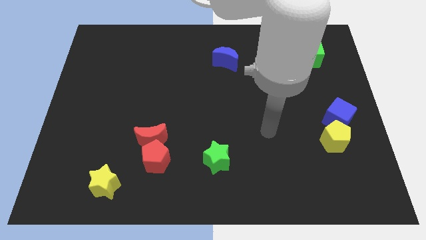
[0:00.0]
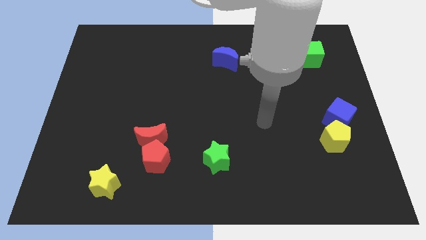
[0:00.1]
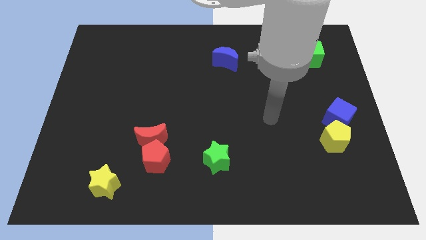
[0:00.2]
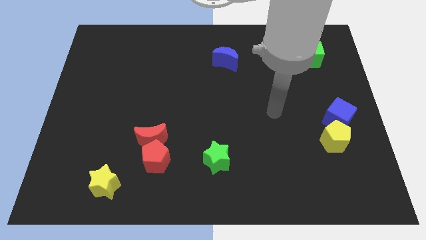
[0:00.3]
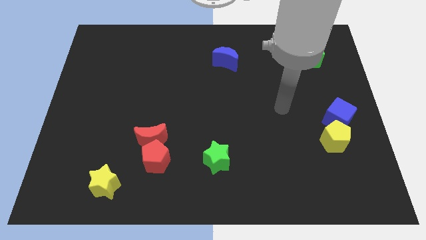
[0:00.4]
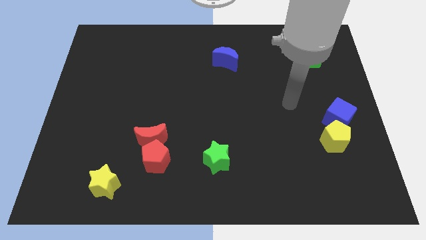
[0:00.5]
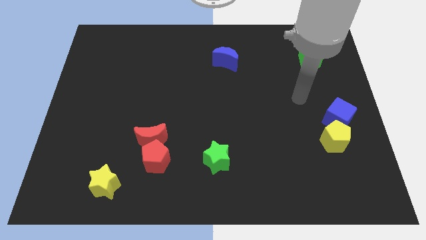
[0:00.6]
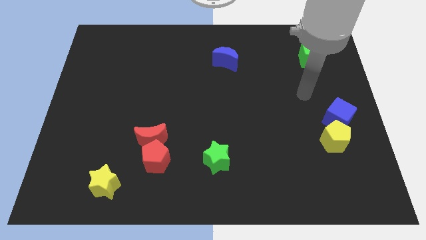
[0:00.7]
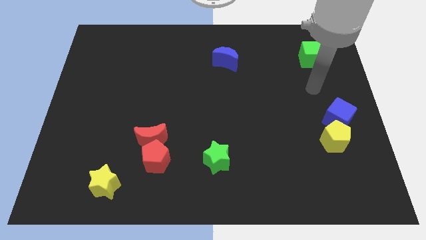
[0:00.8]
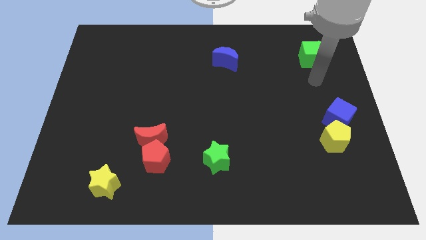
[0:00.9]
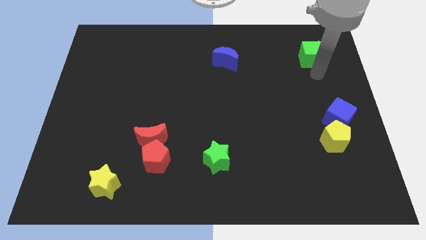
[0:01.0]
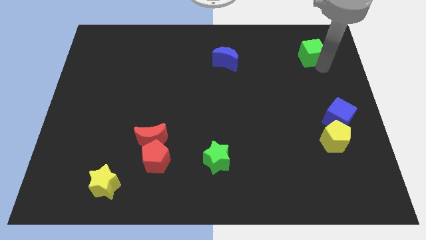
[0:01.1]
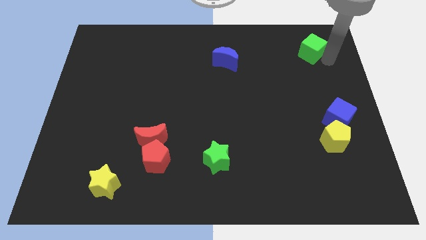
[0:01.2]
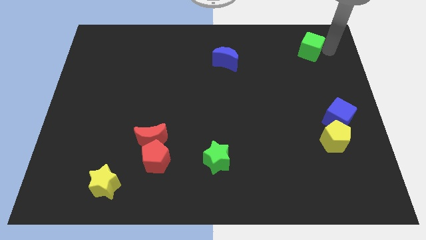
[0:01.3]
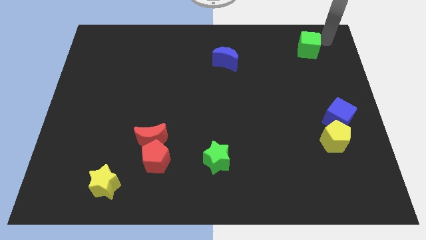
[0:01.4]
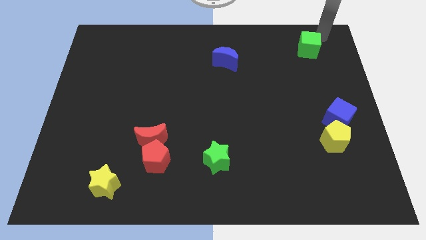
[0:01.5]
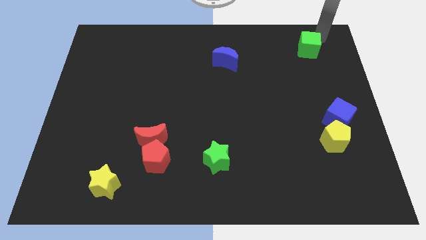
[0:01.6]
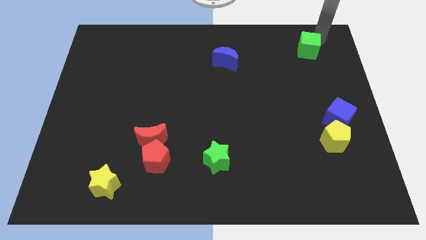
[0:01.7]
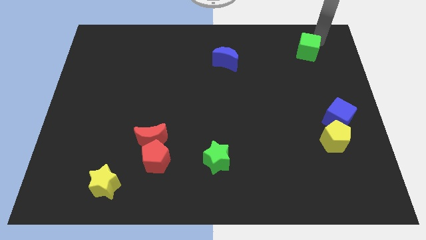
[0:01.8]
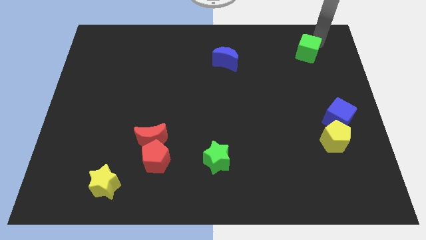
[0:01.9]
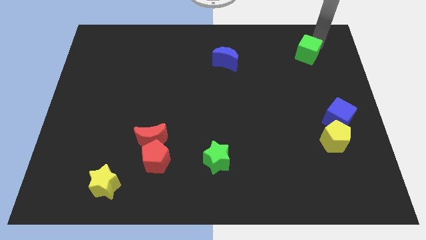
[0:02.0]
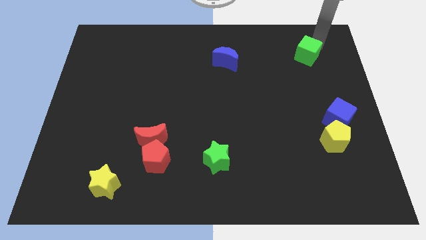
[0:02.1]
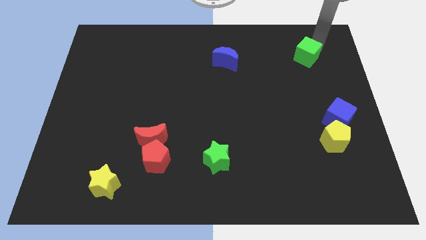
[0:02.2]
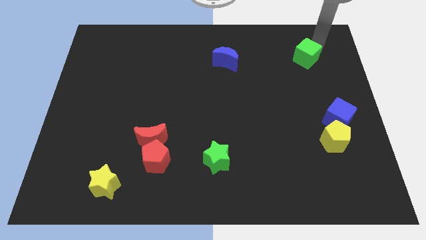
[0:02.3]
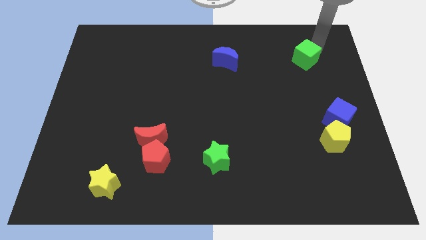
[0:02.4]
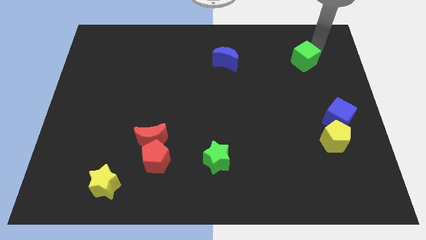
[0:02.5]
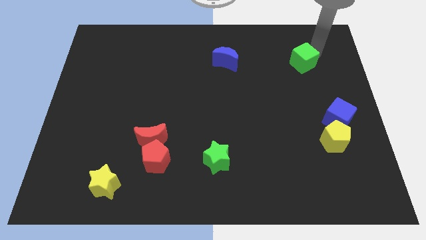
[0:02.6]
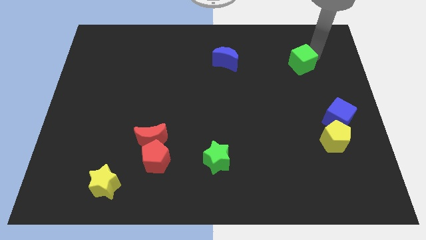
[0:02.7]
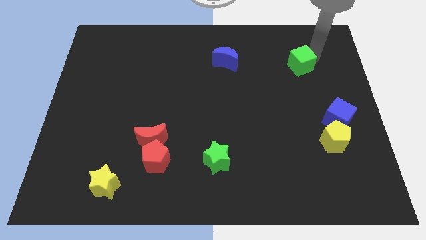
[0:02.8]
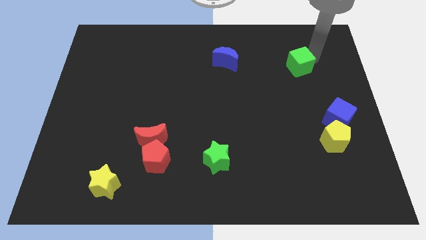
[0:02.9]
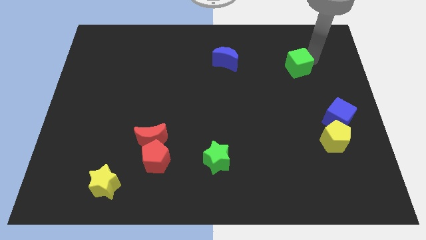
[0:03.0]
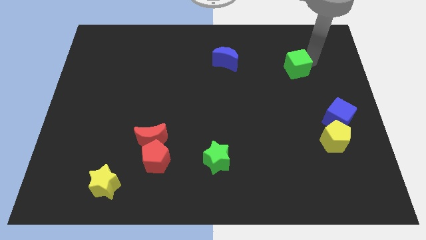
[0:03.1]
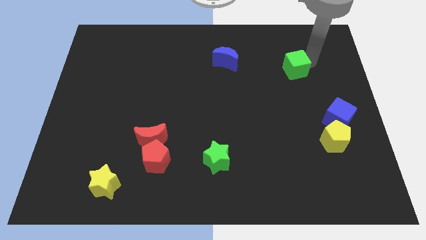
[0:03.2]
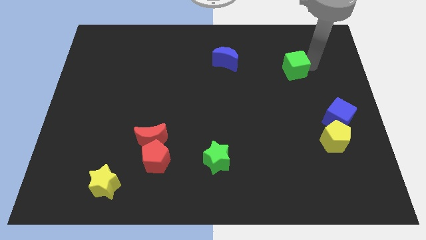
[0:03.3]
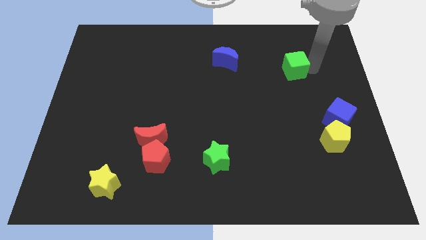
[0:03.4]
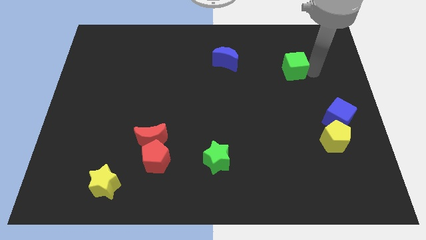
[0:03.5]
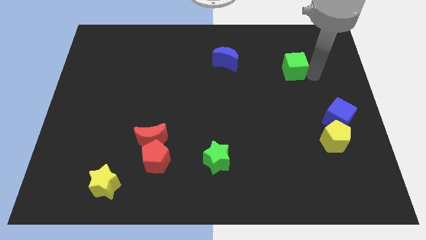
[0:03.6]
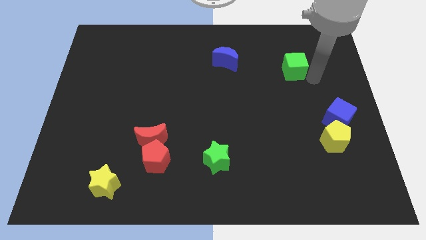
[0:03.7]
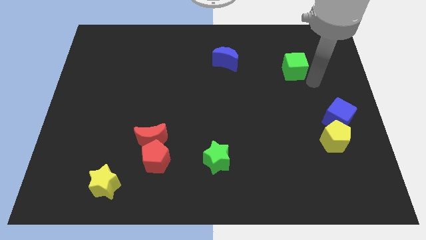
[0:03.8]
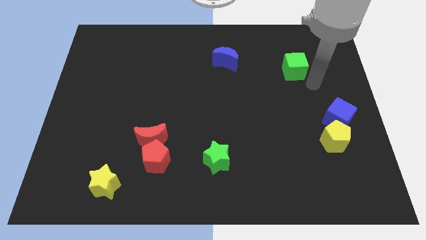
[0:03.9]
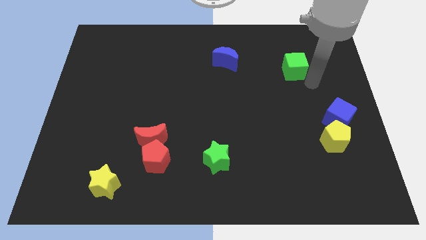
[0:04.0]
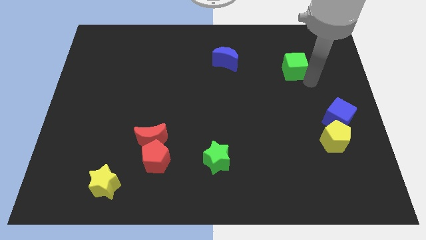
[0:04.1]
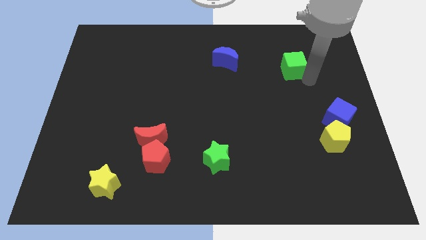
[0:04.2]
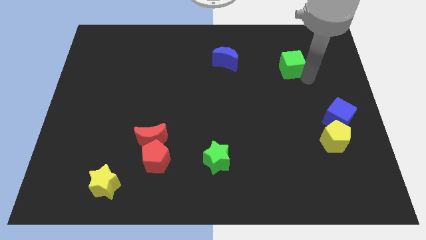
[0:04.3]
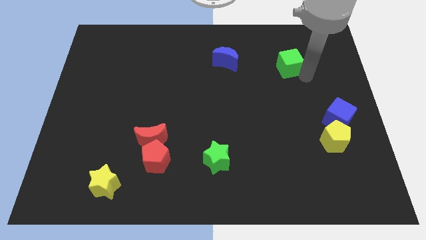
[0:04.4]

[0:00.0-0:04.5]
put the green cube just right of the blue moon

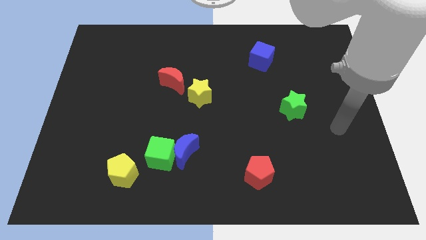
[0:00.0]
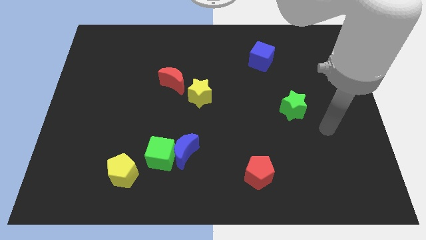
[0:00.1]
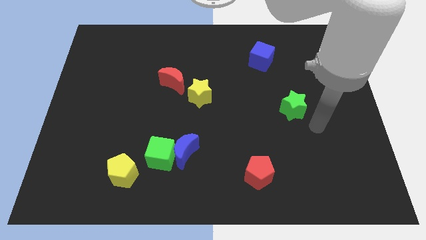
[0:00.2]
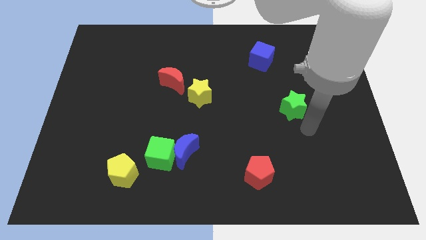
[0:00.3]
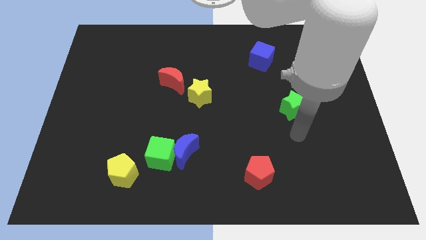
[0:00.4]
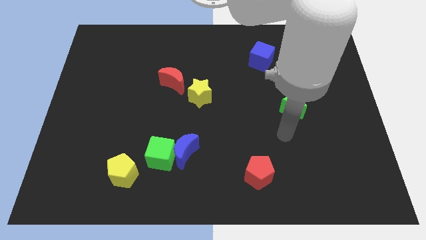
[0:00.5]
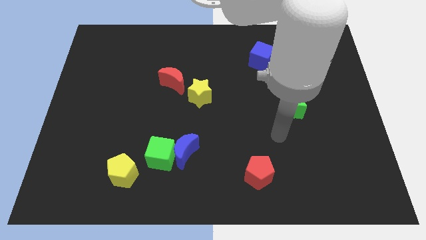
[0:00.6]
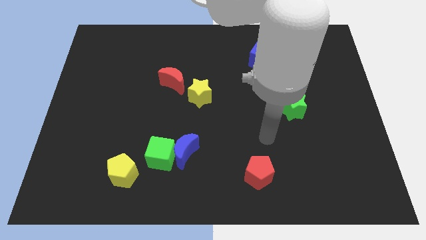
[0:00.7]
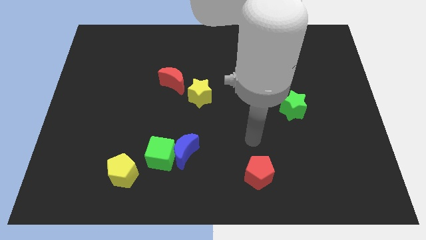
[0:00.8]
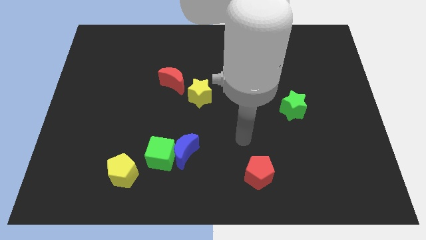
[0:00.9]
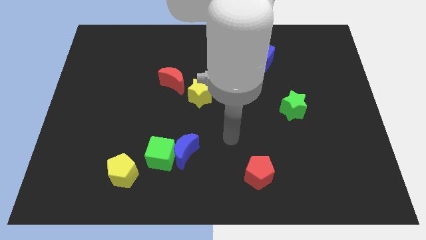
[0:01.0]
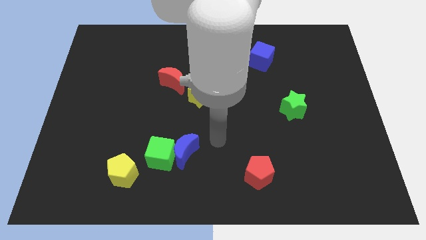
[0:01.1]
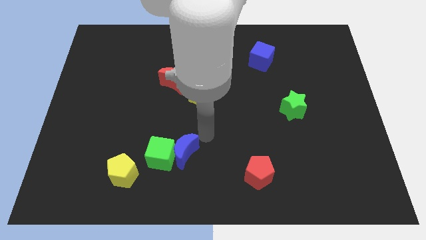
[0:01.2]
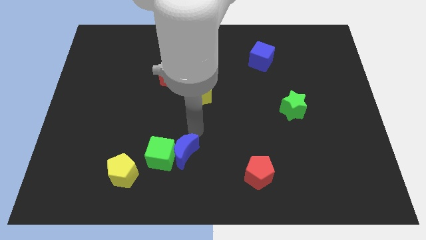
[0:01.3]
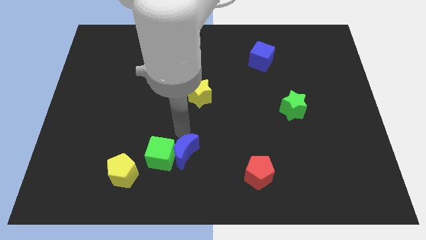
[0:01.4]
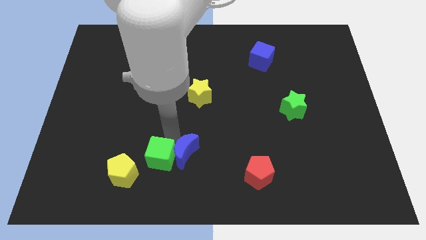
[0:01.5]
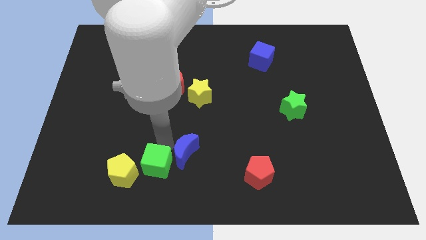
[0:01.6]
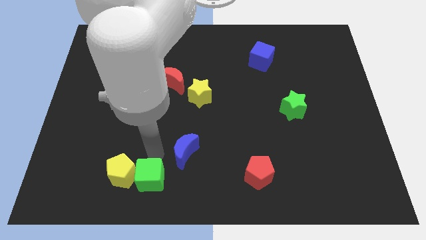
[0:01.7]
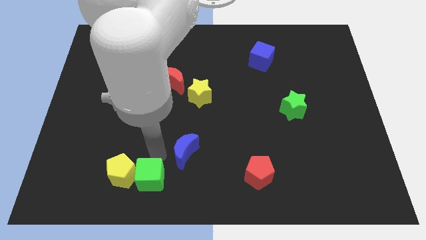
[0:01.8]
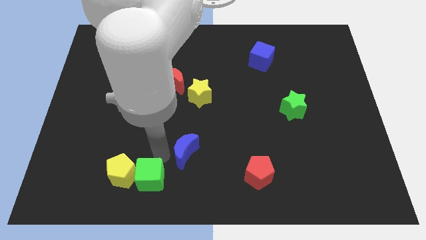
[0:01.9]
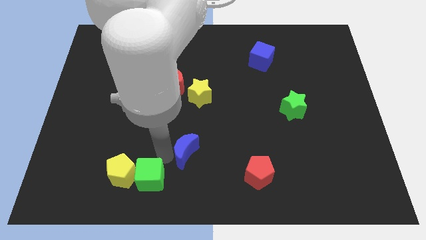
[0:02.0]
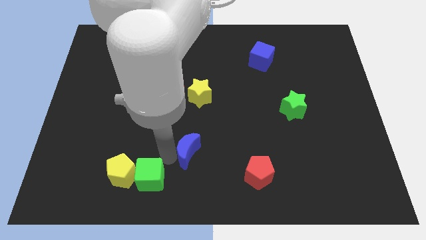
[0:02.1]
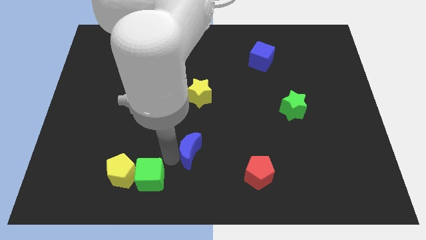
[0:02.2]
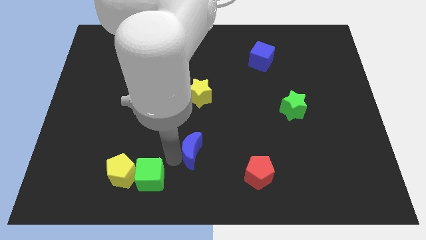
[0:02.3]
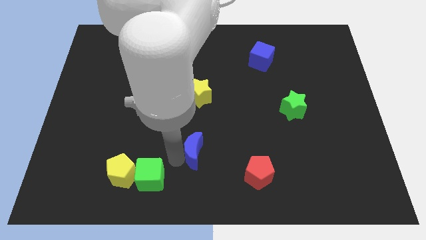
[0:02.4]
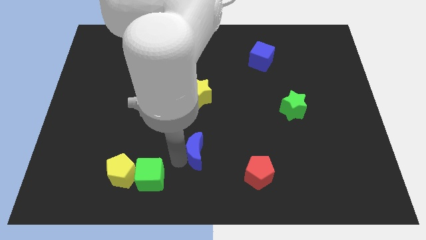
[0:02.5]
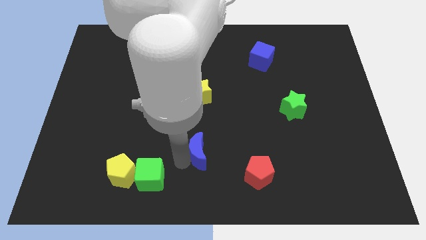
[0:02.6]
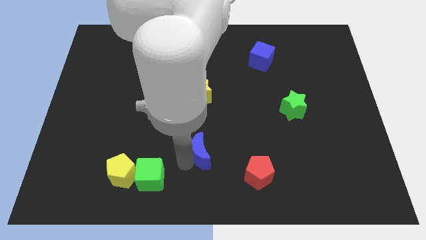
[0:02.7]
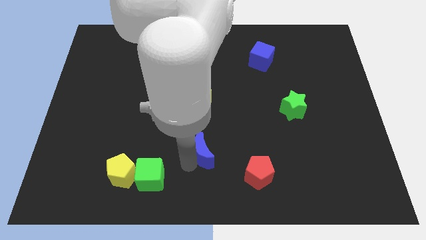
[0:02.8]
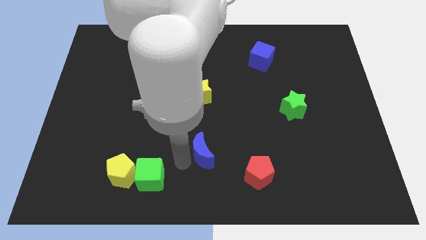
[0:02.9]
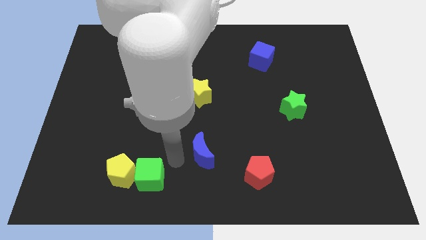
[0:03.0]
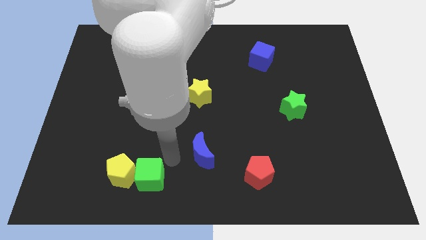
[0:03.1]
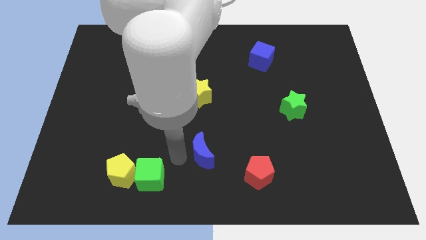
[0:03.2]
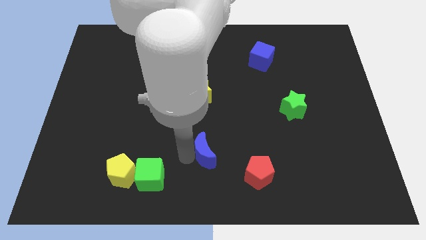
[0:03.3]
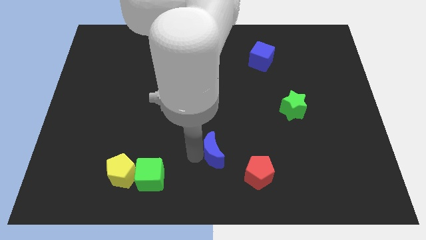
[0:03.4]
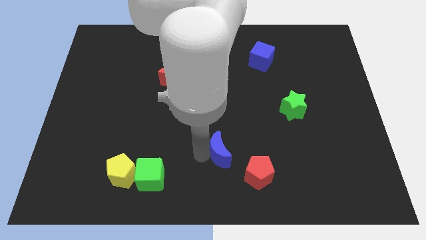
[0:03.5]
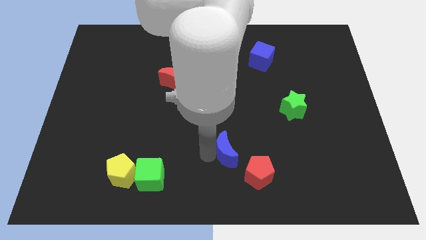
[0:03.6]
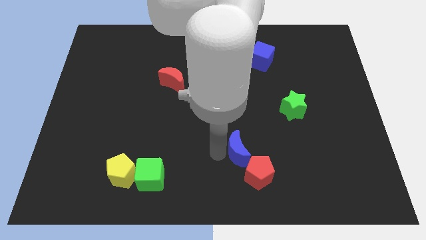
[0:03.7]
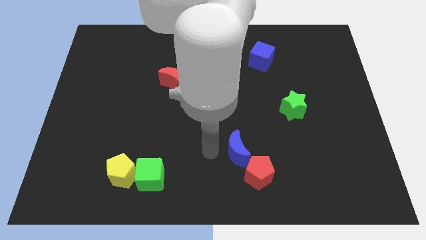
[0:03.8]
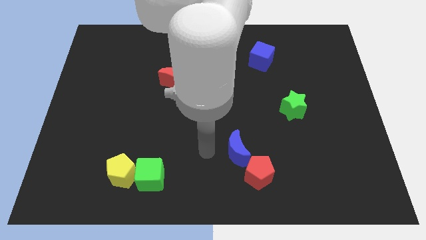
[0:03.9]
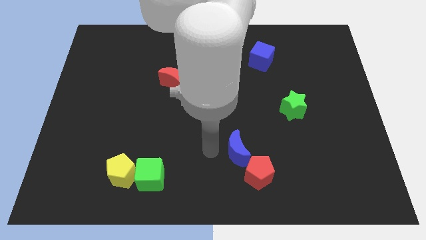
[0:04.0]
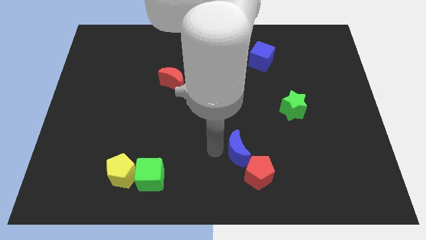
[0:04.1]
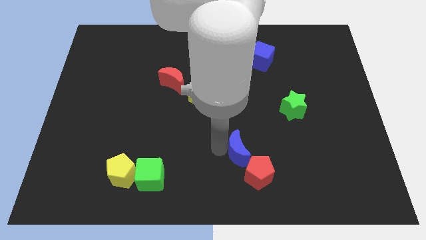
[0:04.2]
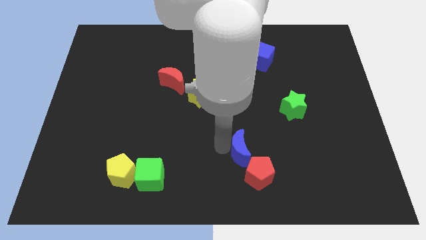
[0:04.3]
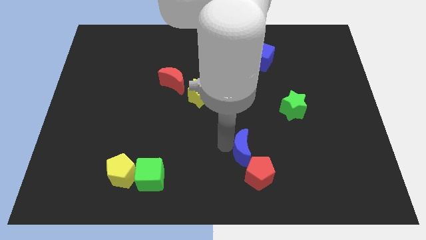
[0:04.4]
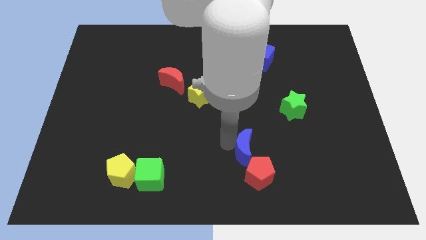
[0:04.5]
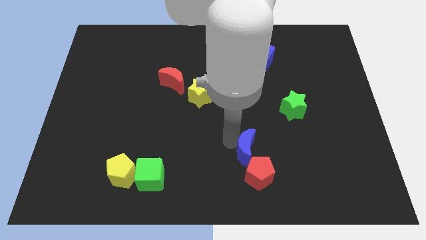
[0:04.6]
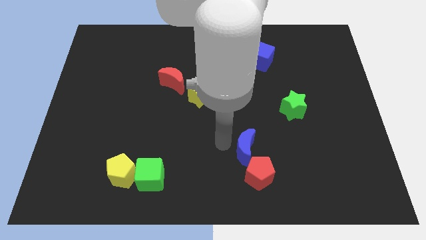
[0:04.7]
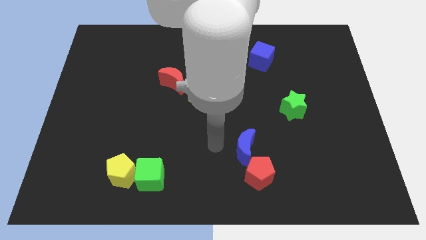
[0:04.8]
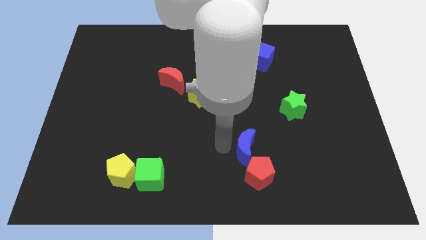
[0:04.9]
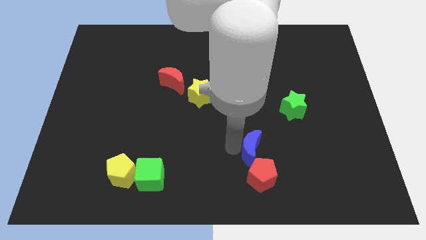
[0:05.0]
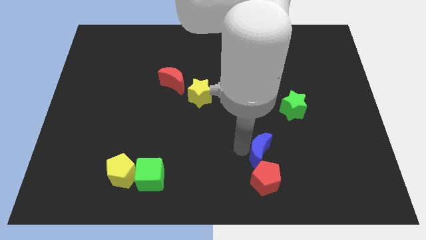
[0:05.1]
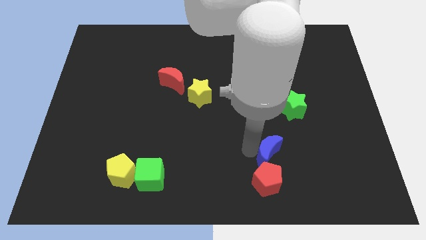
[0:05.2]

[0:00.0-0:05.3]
move the blue moon diagonally up and to the right of the red pentagon
